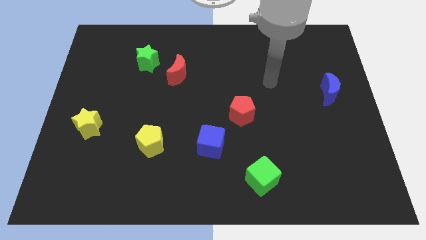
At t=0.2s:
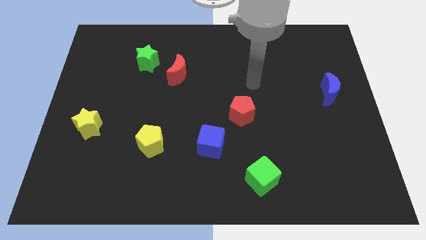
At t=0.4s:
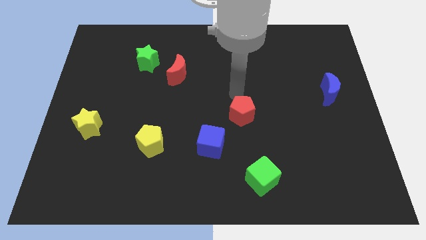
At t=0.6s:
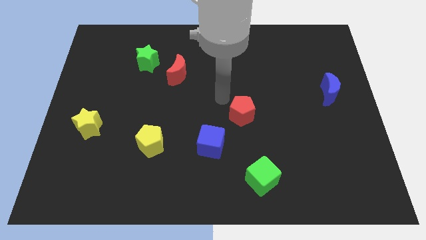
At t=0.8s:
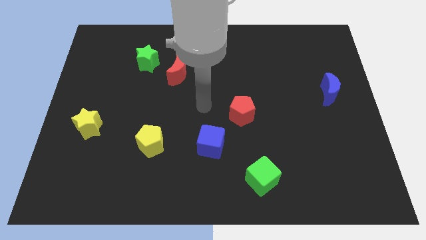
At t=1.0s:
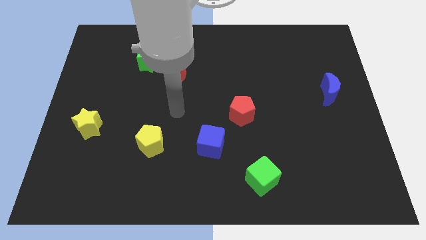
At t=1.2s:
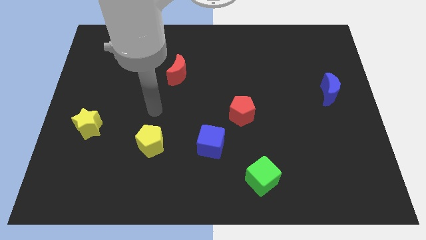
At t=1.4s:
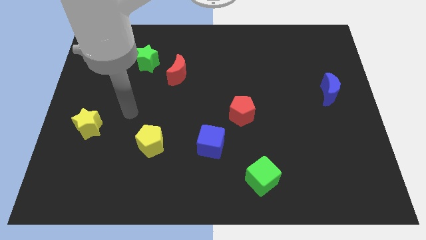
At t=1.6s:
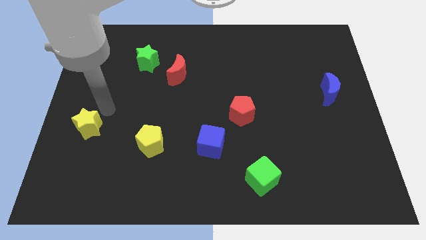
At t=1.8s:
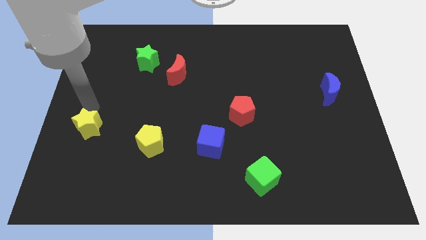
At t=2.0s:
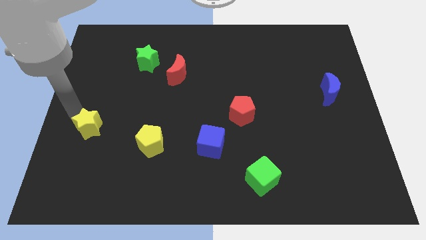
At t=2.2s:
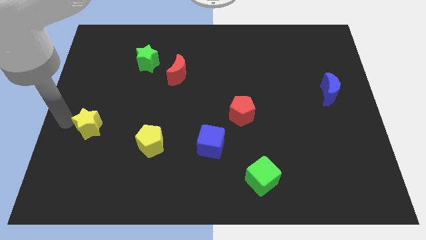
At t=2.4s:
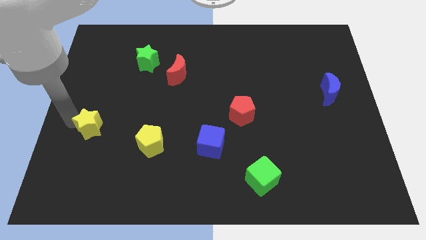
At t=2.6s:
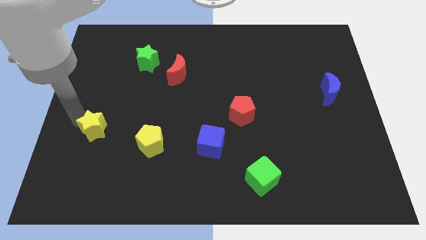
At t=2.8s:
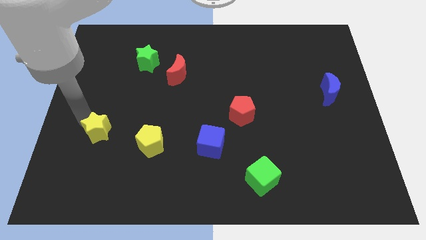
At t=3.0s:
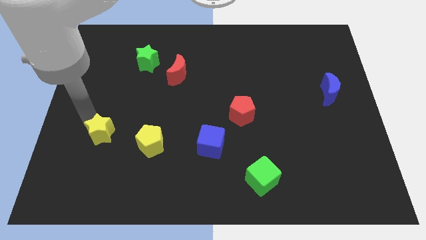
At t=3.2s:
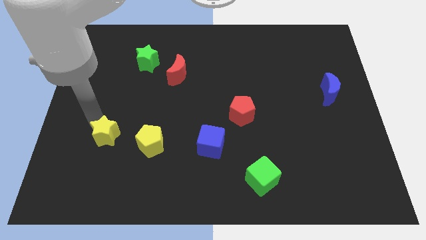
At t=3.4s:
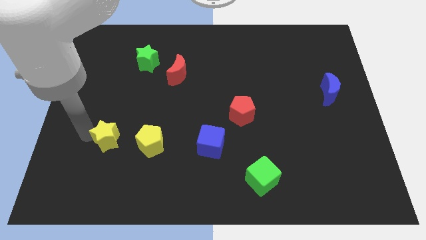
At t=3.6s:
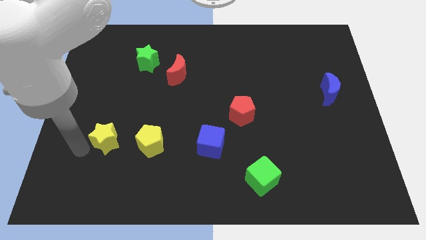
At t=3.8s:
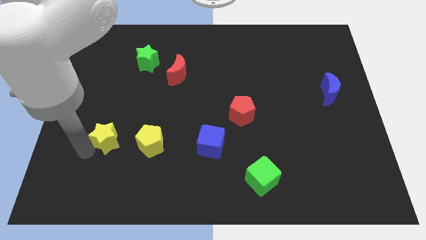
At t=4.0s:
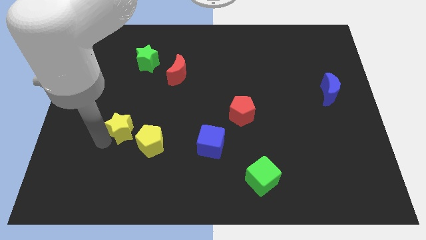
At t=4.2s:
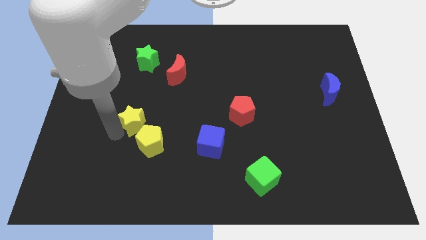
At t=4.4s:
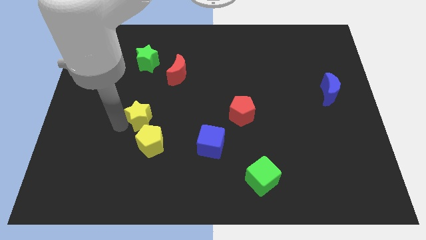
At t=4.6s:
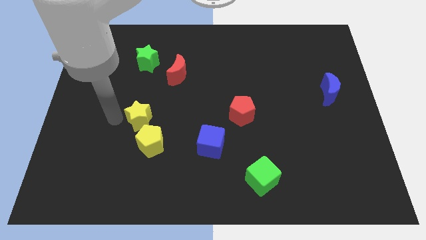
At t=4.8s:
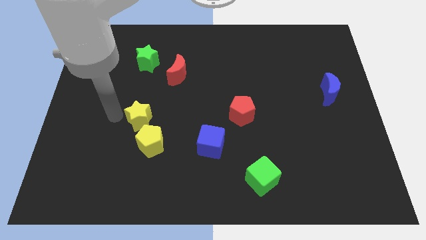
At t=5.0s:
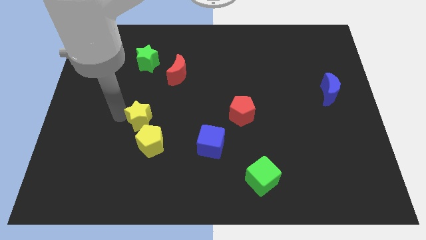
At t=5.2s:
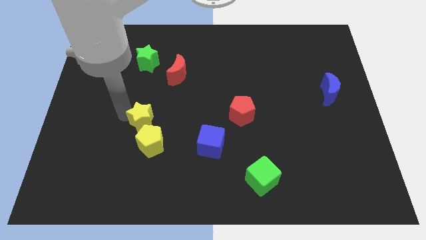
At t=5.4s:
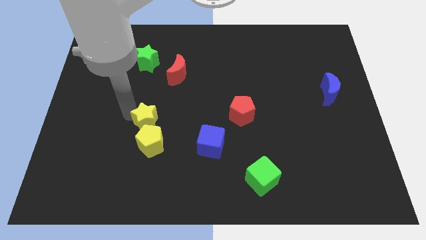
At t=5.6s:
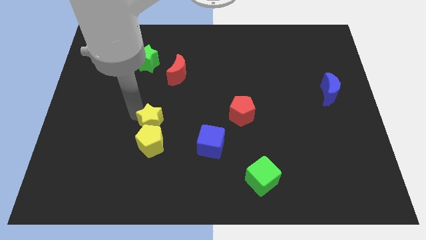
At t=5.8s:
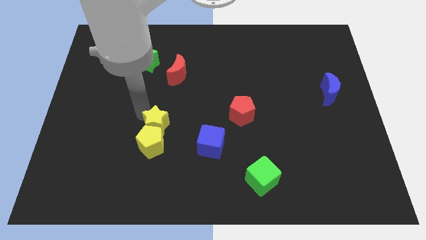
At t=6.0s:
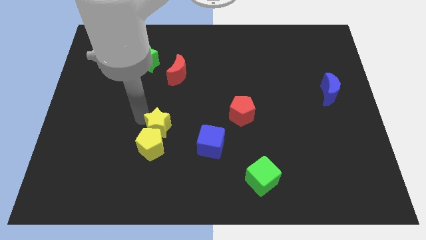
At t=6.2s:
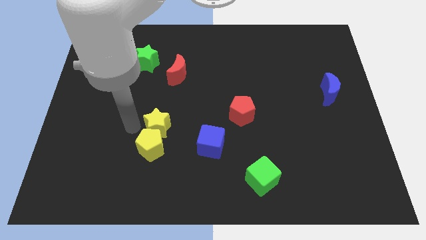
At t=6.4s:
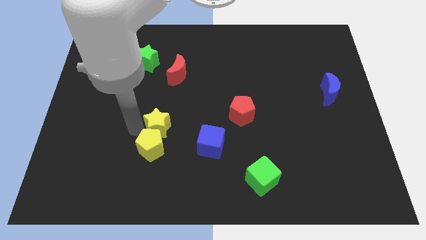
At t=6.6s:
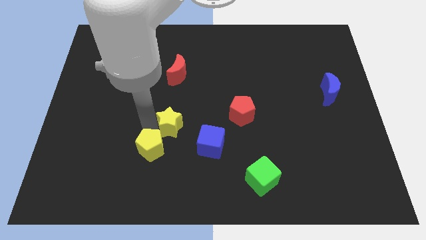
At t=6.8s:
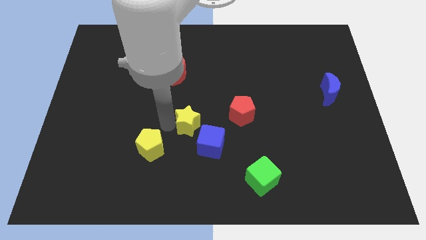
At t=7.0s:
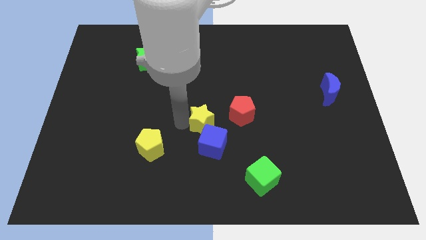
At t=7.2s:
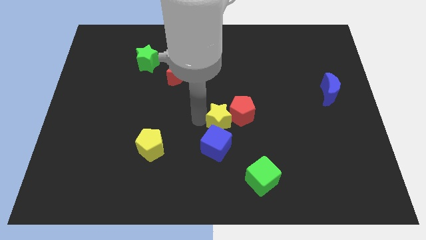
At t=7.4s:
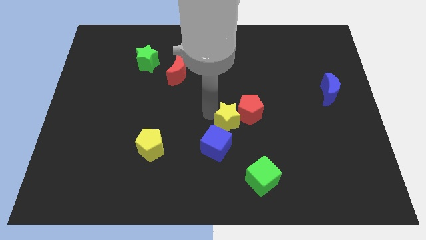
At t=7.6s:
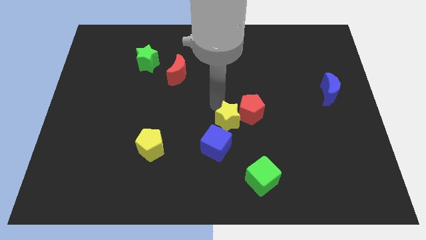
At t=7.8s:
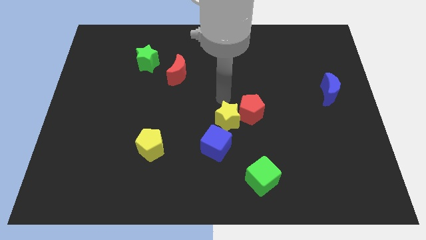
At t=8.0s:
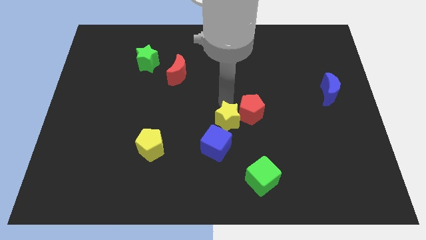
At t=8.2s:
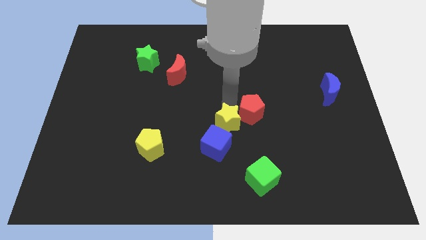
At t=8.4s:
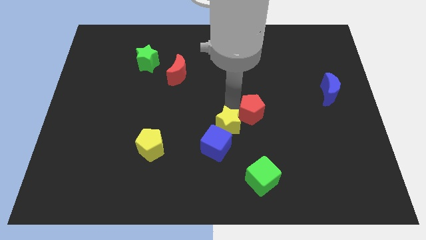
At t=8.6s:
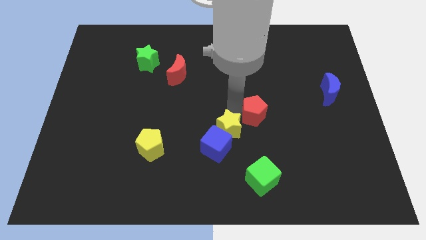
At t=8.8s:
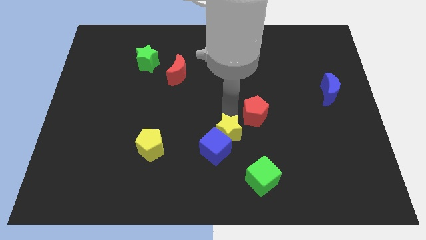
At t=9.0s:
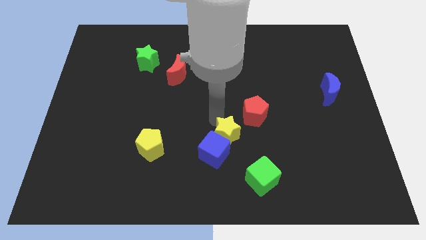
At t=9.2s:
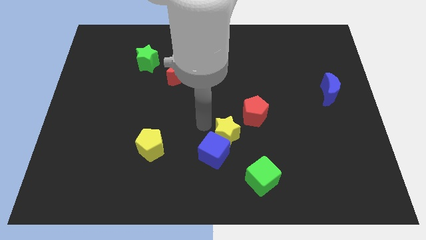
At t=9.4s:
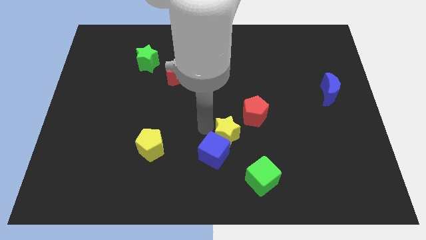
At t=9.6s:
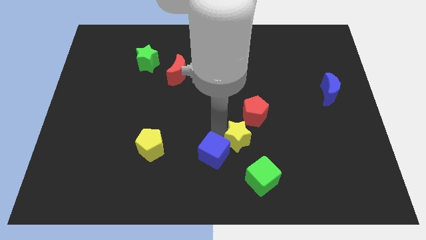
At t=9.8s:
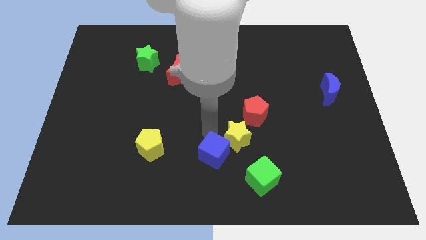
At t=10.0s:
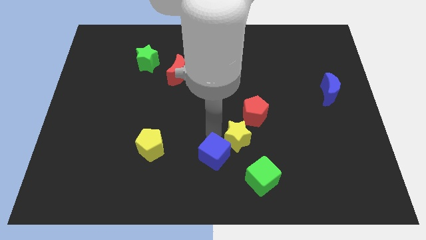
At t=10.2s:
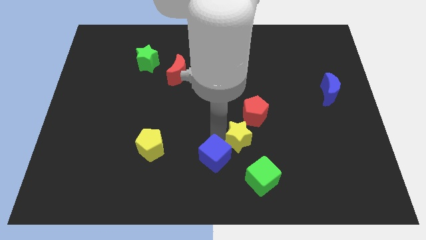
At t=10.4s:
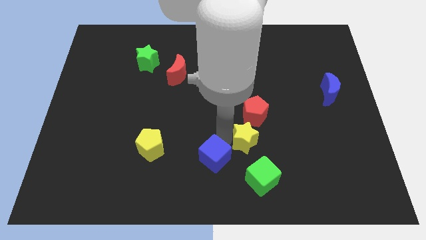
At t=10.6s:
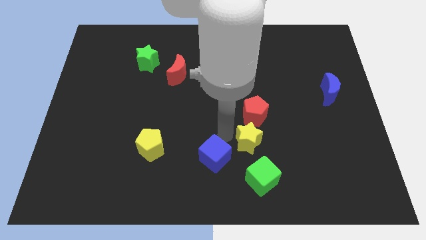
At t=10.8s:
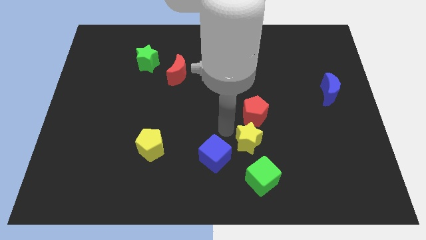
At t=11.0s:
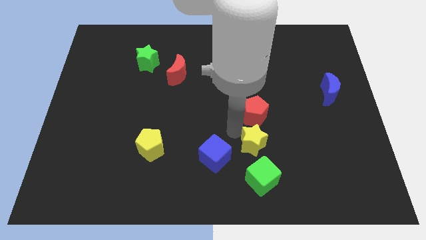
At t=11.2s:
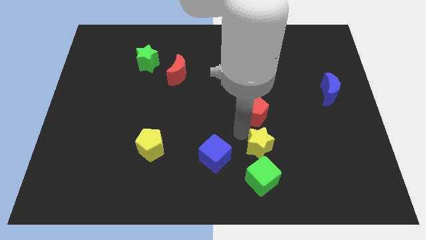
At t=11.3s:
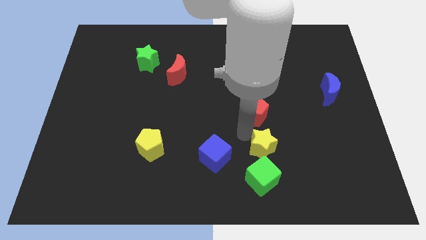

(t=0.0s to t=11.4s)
move the yellow star to the top right side of the green cube
